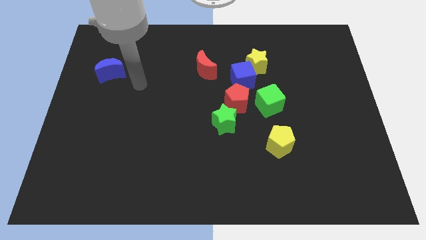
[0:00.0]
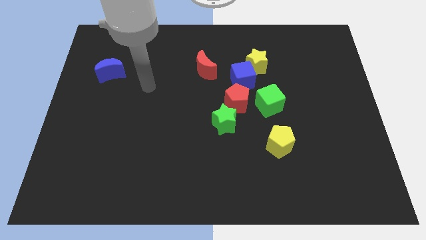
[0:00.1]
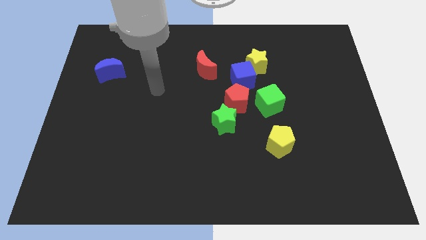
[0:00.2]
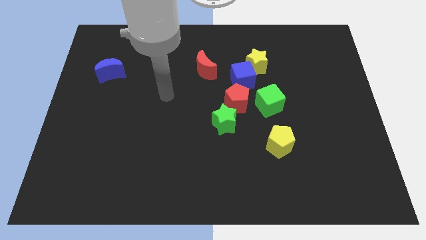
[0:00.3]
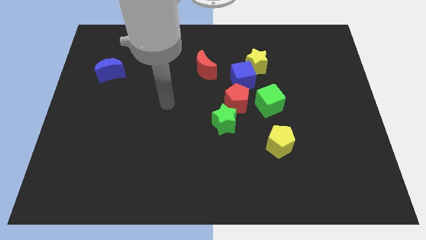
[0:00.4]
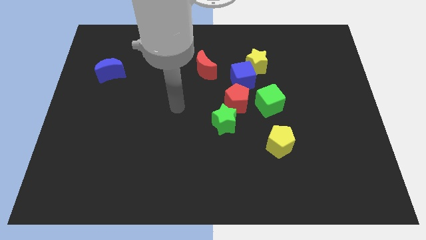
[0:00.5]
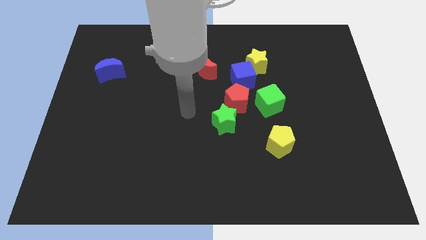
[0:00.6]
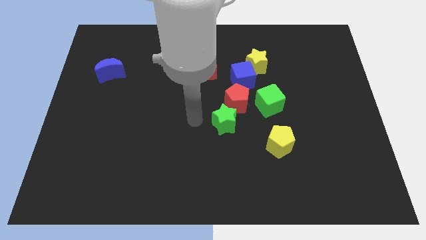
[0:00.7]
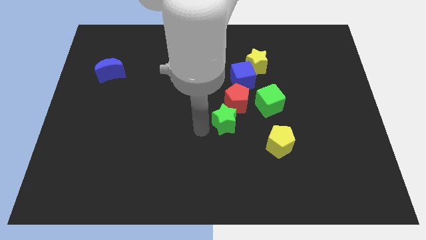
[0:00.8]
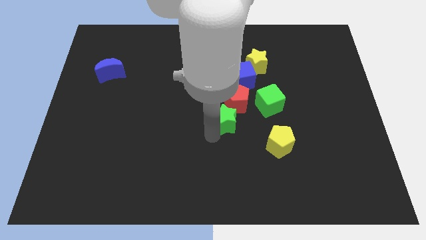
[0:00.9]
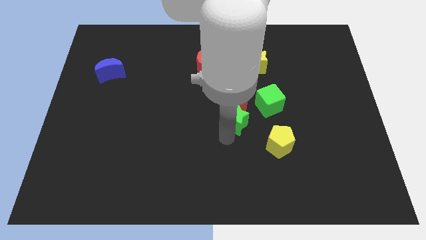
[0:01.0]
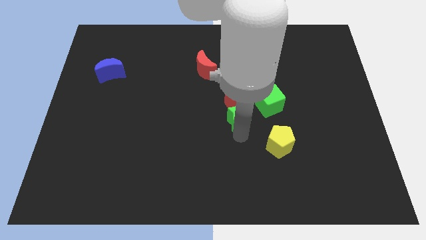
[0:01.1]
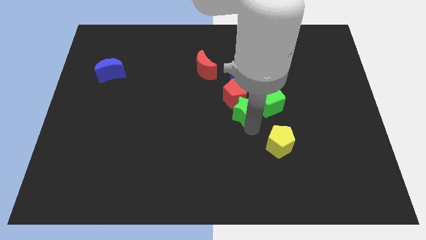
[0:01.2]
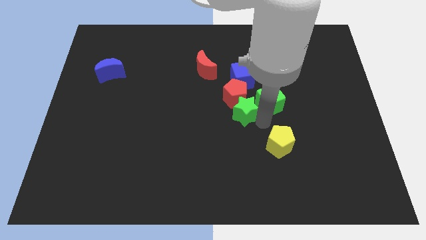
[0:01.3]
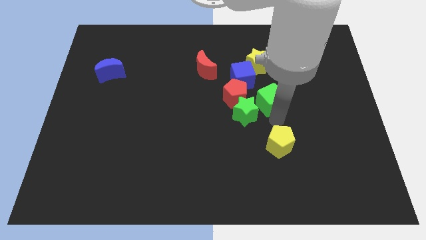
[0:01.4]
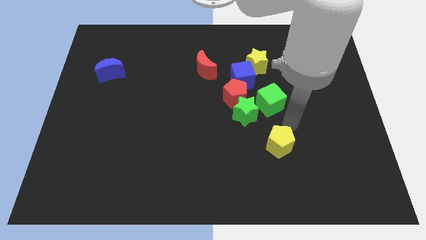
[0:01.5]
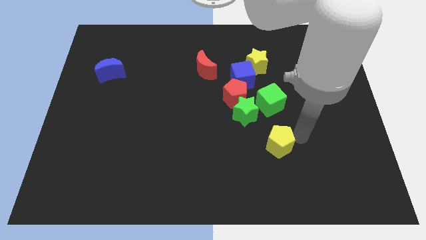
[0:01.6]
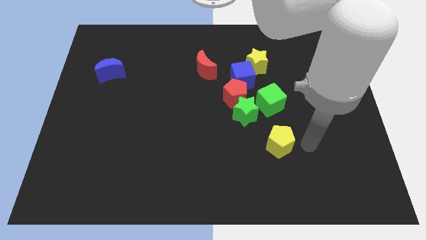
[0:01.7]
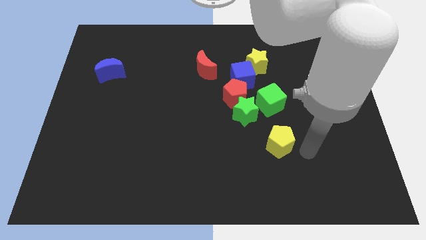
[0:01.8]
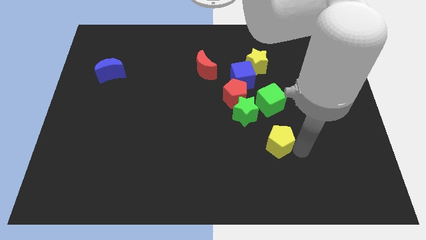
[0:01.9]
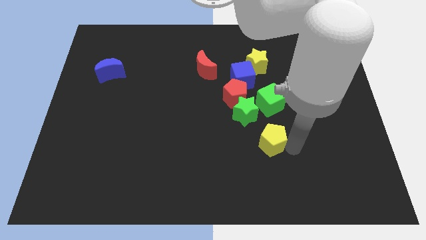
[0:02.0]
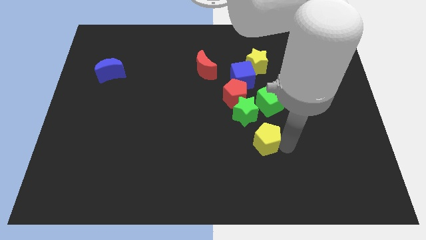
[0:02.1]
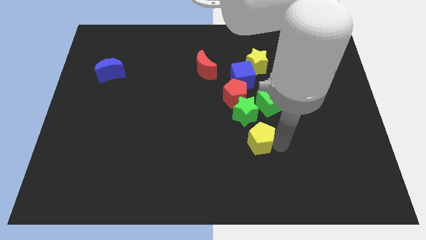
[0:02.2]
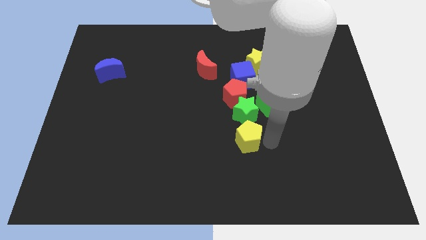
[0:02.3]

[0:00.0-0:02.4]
push the yellow pentagon to the left somewhat

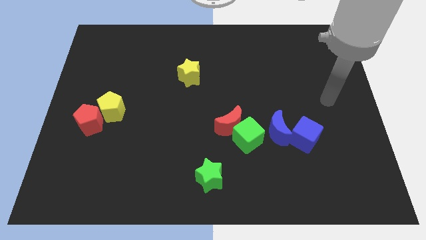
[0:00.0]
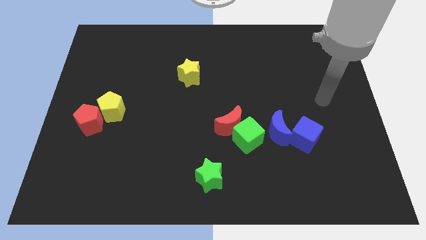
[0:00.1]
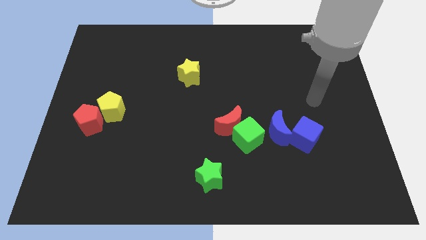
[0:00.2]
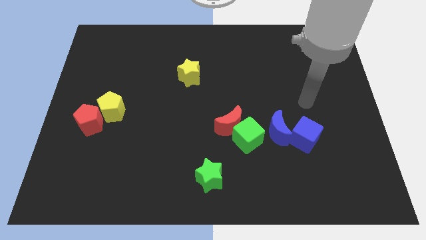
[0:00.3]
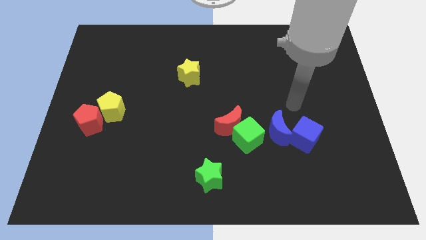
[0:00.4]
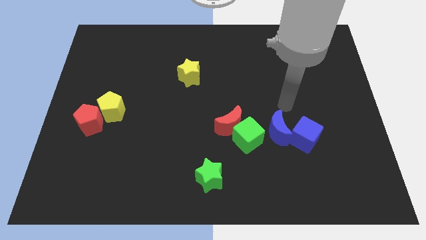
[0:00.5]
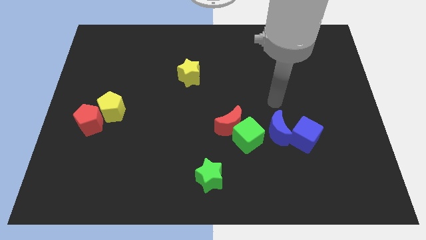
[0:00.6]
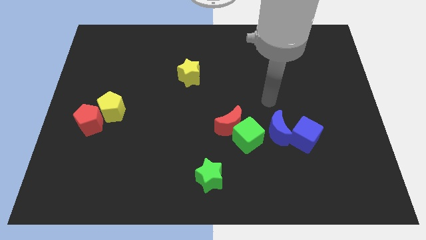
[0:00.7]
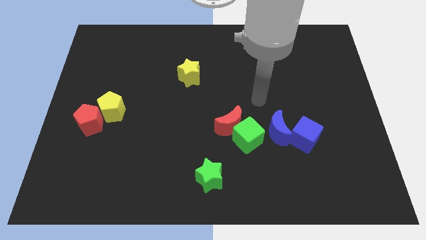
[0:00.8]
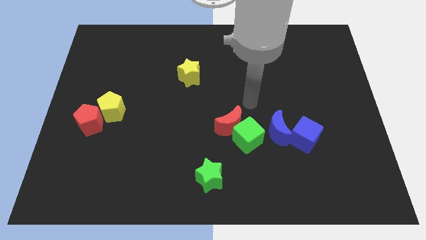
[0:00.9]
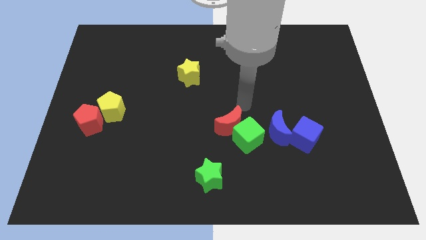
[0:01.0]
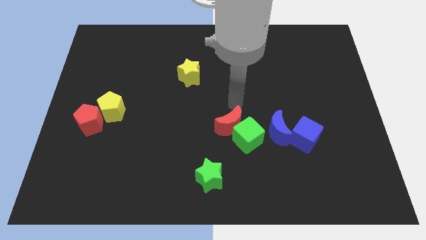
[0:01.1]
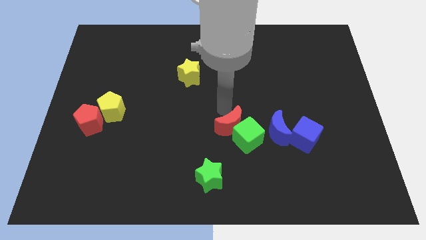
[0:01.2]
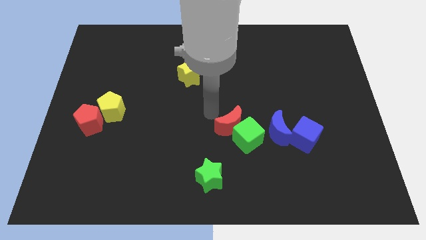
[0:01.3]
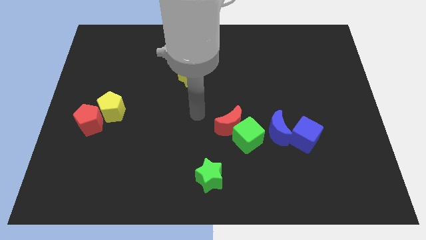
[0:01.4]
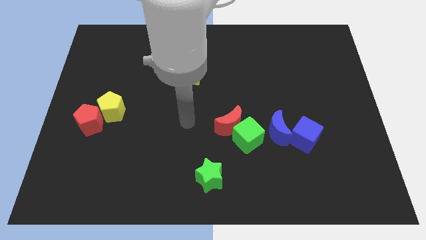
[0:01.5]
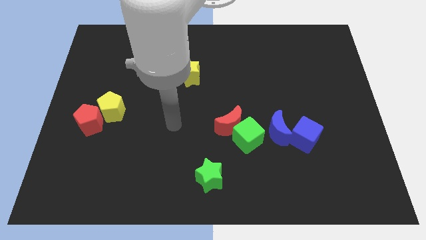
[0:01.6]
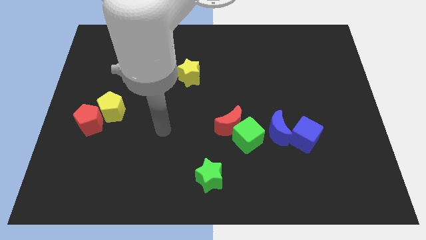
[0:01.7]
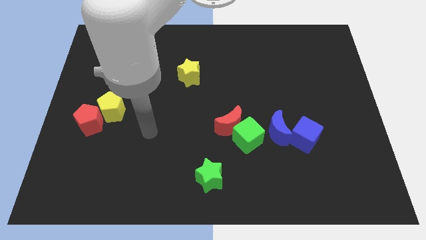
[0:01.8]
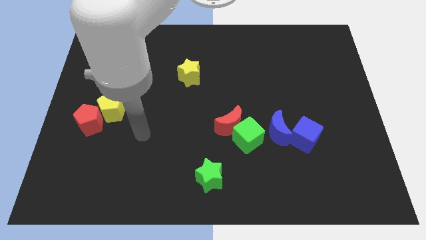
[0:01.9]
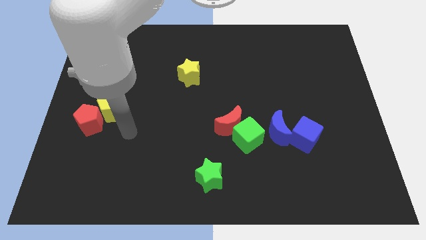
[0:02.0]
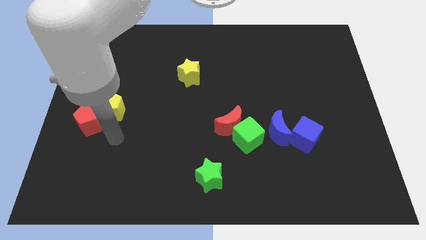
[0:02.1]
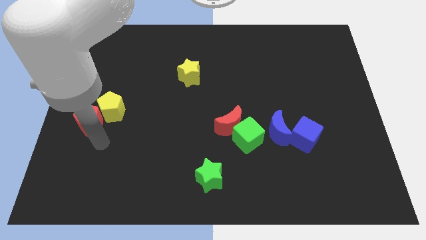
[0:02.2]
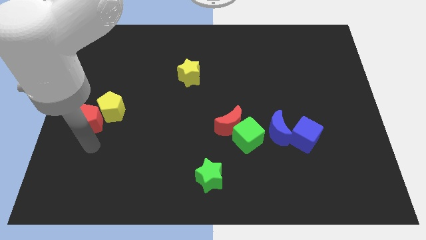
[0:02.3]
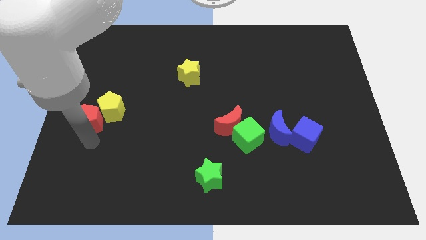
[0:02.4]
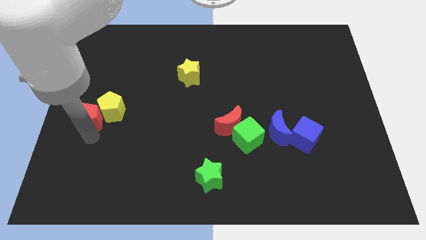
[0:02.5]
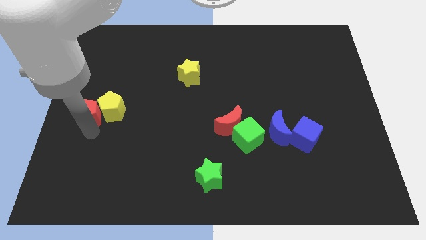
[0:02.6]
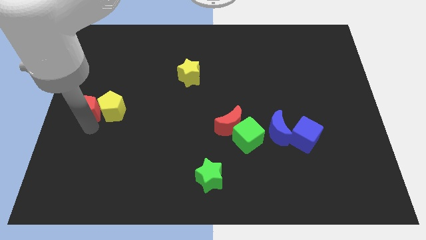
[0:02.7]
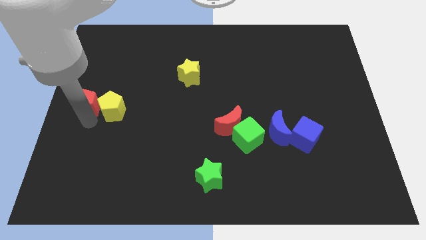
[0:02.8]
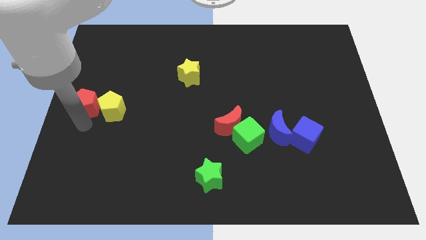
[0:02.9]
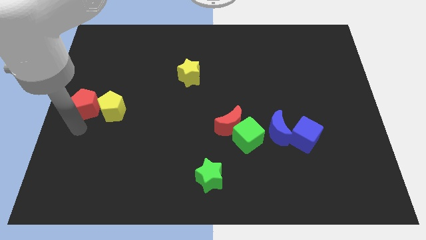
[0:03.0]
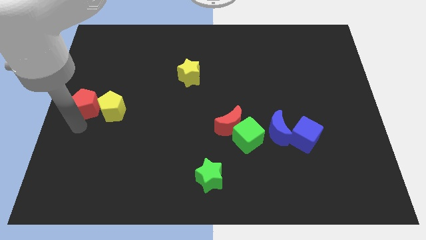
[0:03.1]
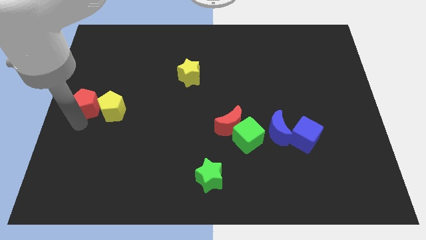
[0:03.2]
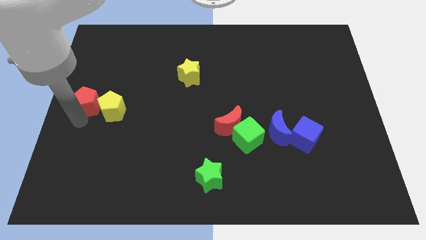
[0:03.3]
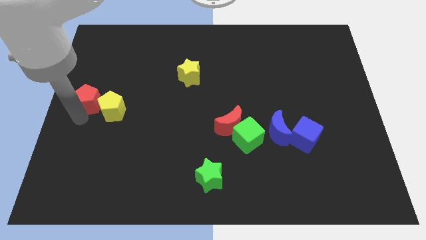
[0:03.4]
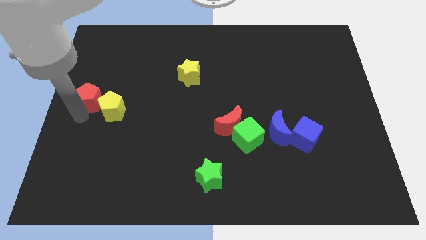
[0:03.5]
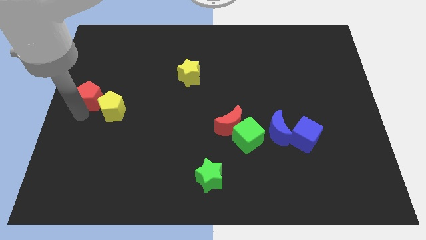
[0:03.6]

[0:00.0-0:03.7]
move the red pentagon a little up

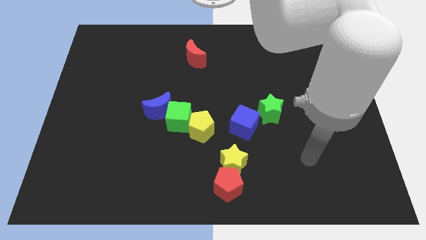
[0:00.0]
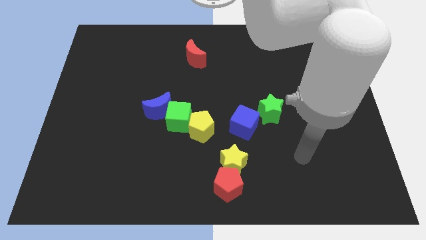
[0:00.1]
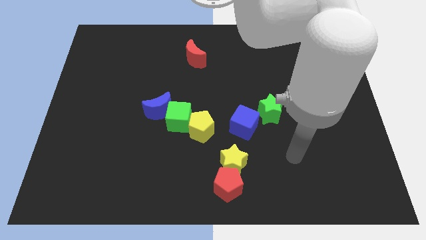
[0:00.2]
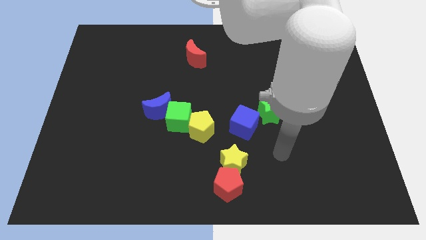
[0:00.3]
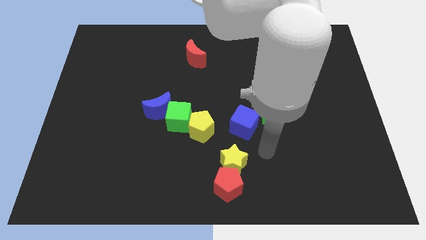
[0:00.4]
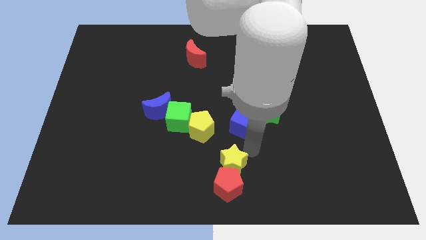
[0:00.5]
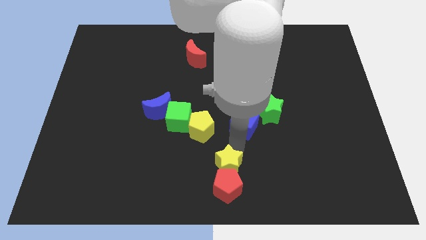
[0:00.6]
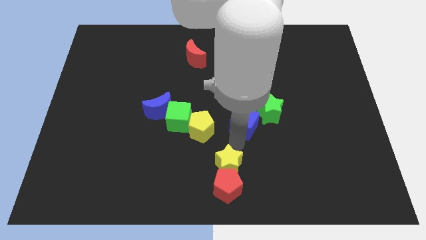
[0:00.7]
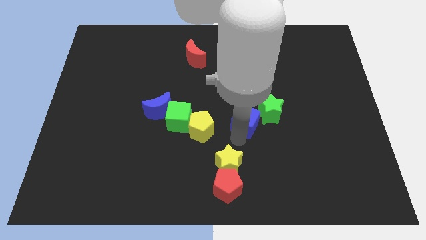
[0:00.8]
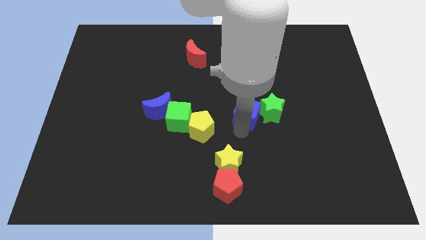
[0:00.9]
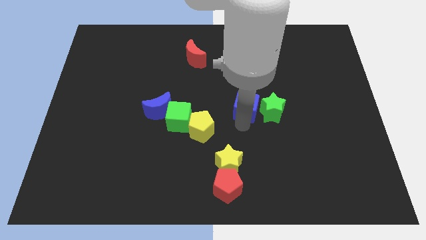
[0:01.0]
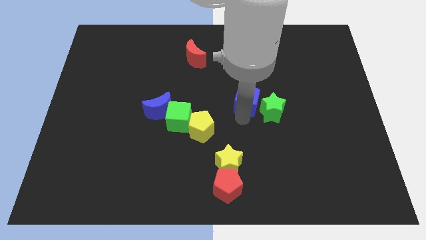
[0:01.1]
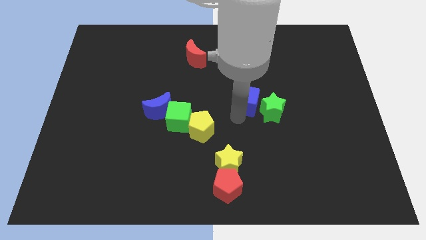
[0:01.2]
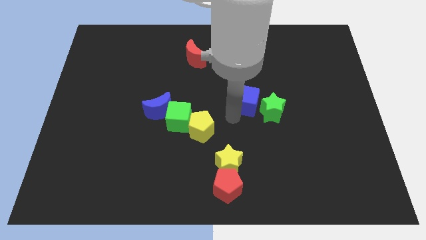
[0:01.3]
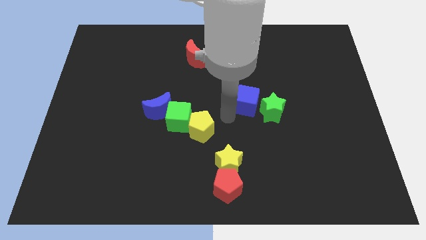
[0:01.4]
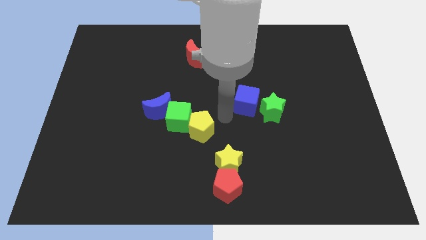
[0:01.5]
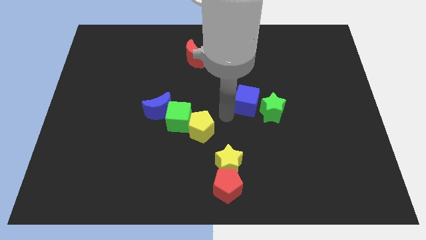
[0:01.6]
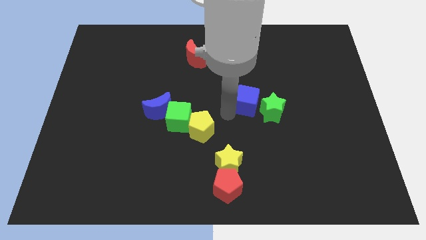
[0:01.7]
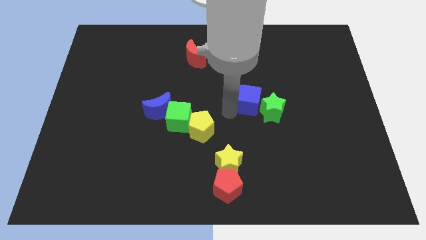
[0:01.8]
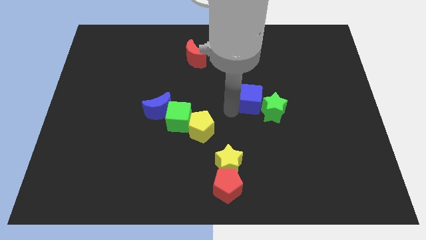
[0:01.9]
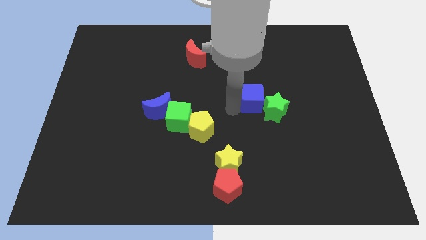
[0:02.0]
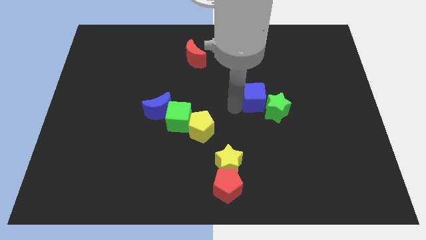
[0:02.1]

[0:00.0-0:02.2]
slightly push the blue cube up and then right
